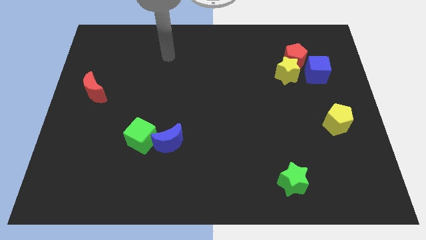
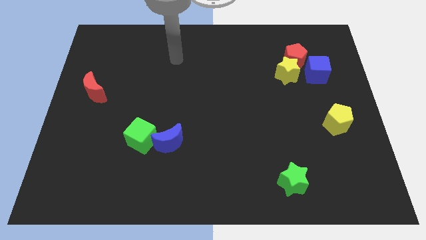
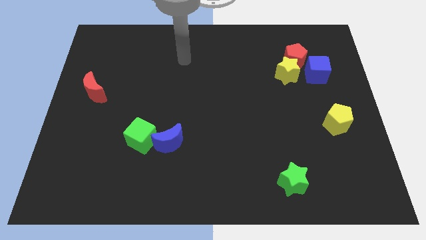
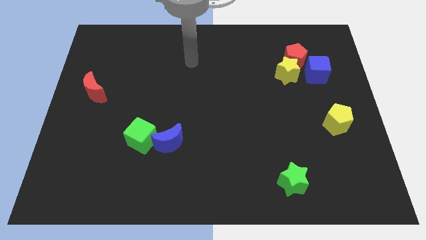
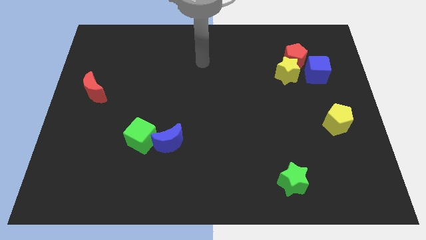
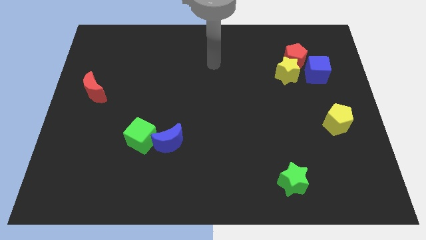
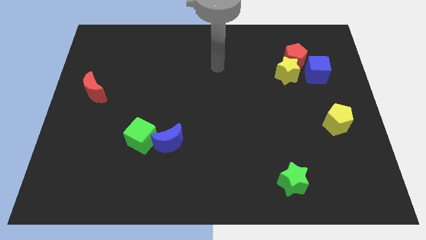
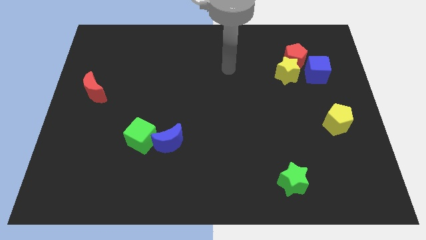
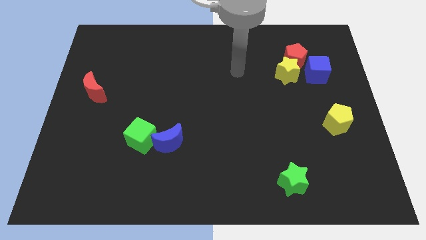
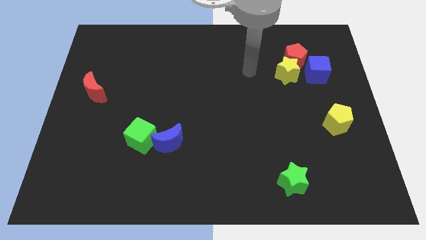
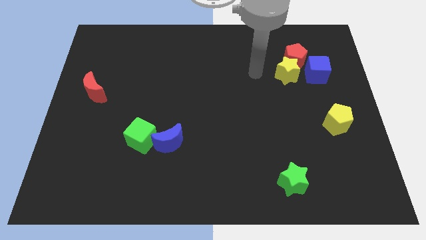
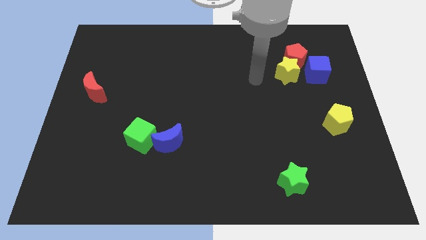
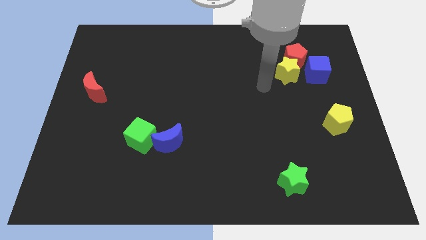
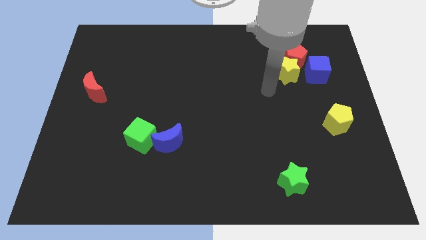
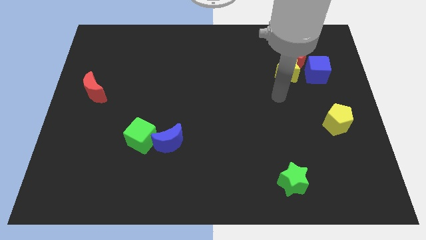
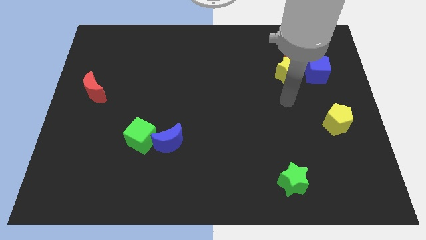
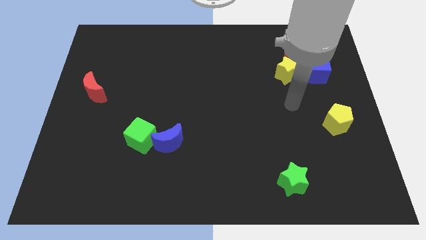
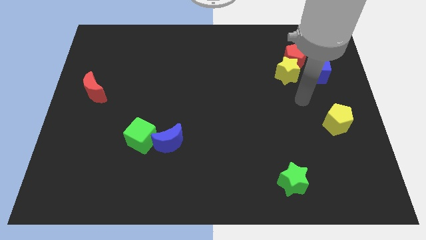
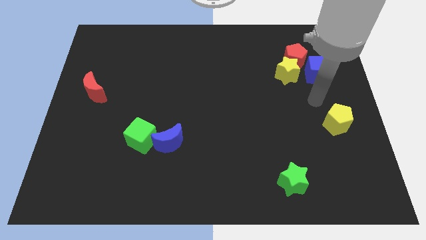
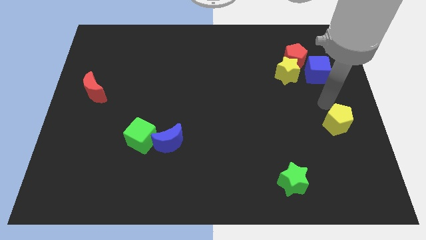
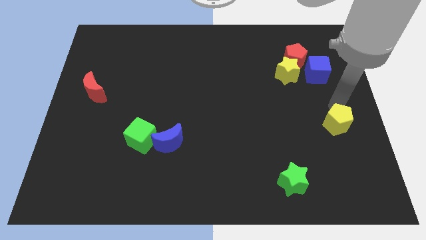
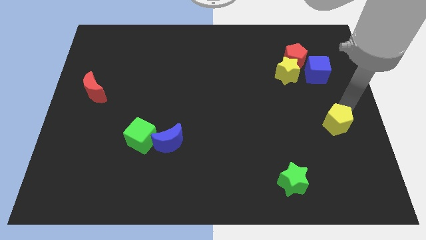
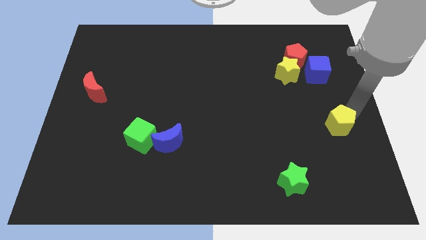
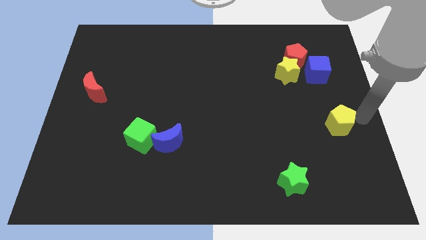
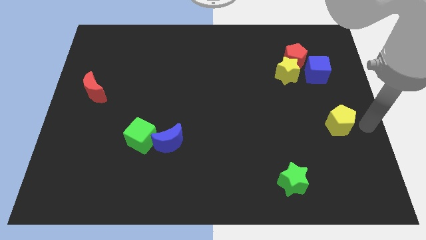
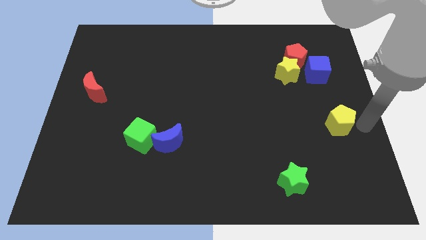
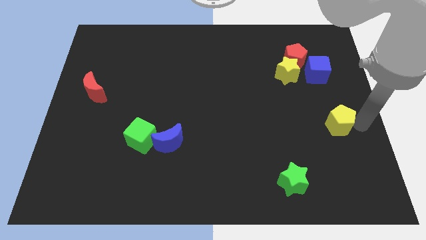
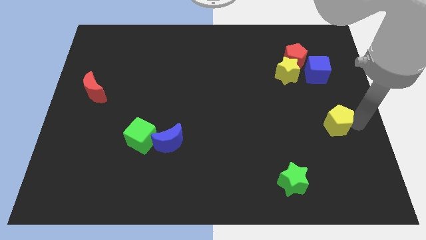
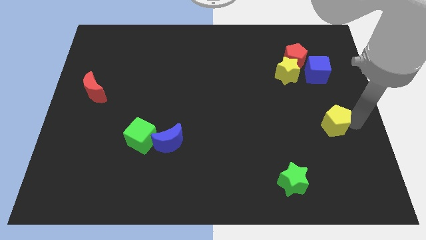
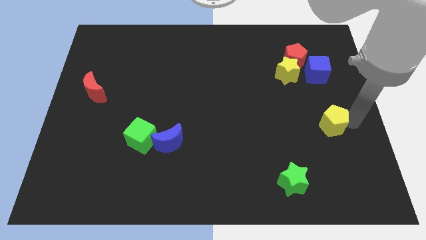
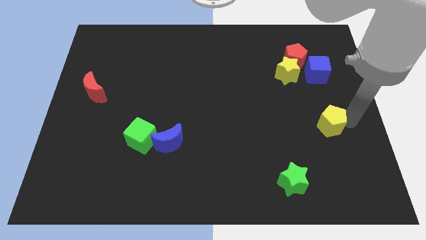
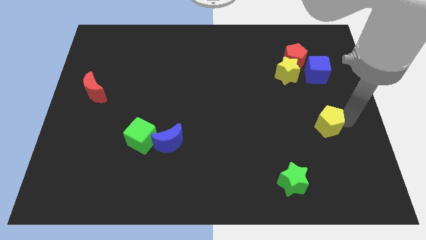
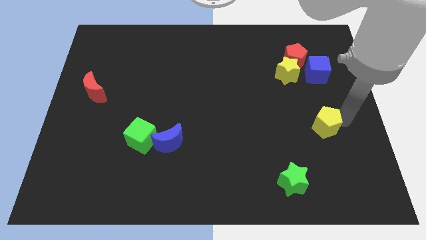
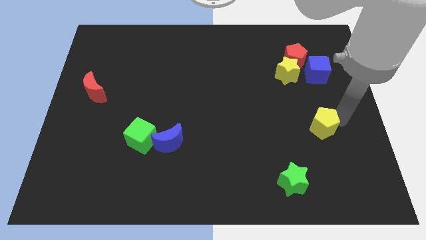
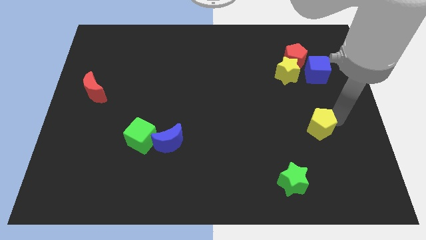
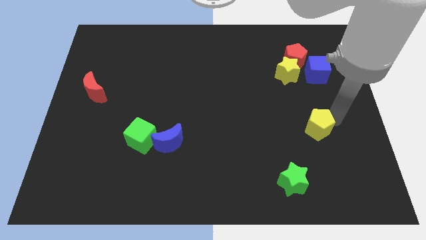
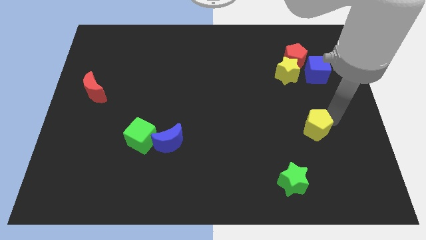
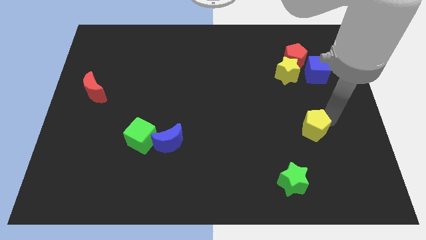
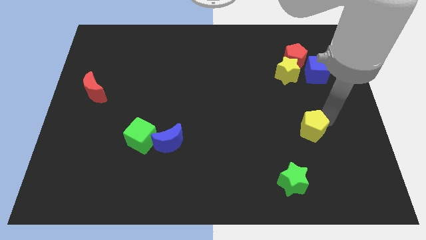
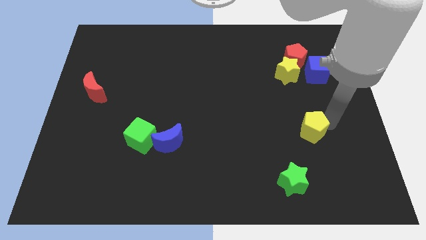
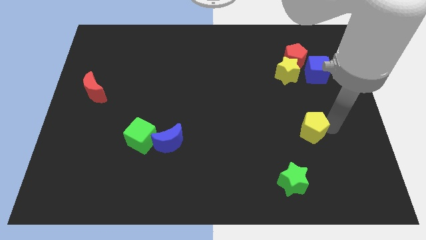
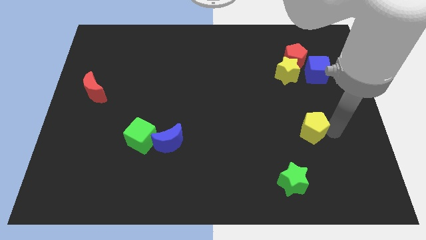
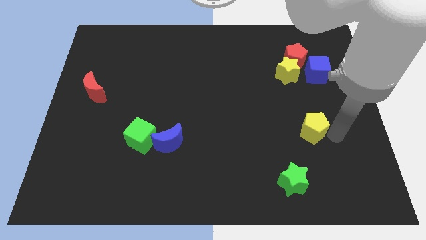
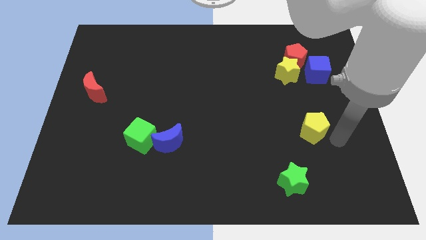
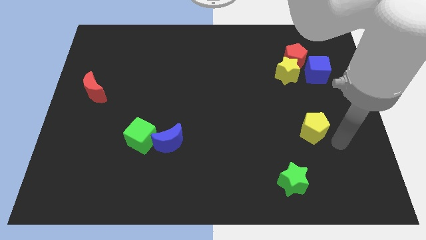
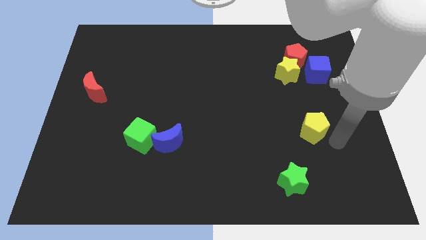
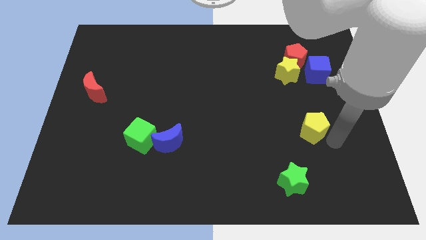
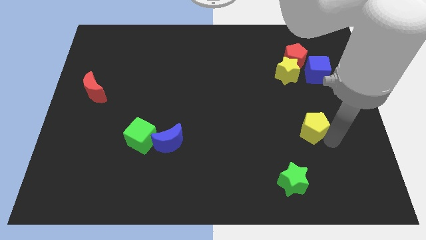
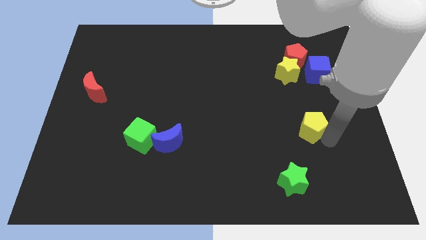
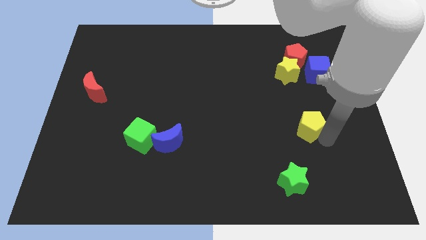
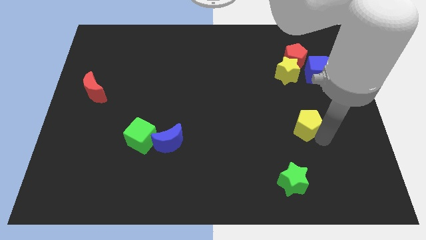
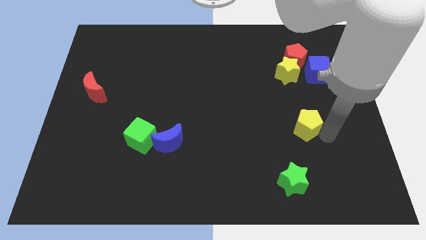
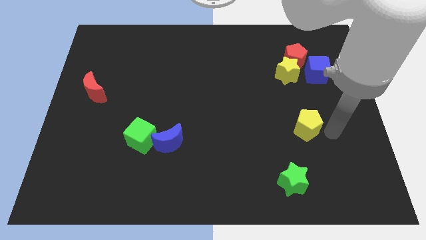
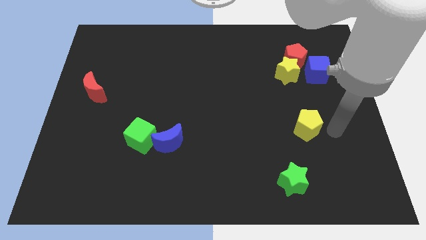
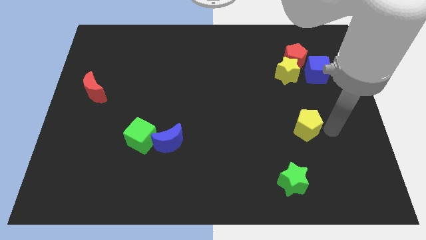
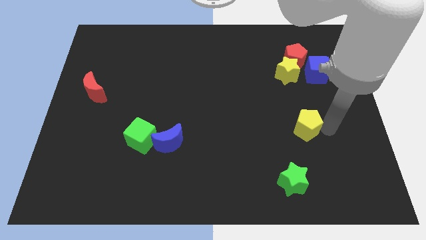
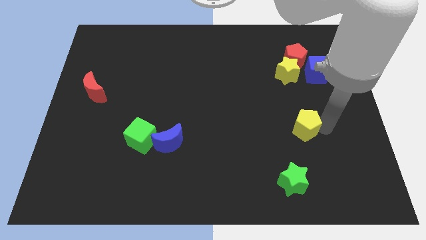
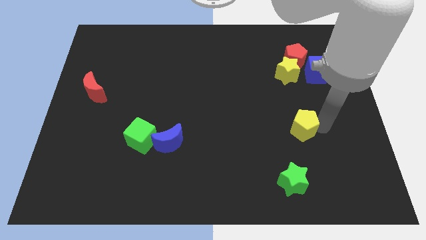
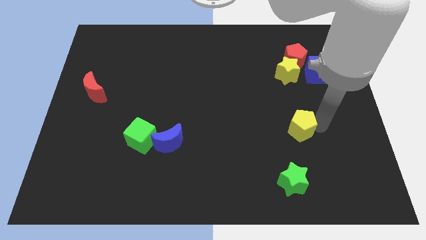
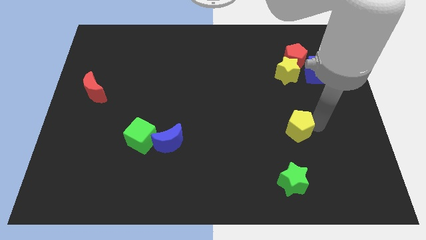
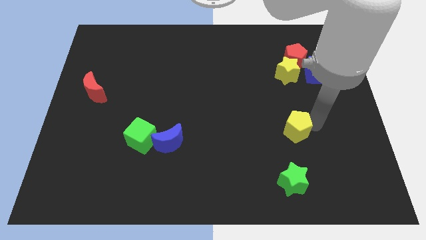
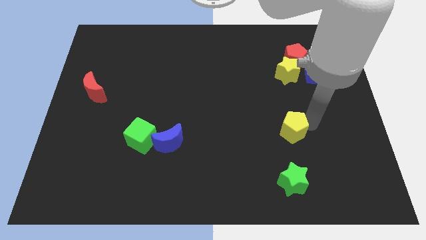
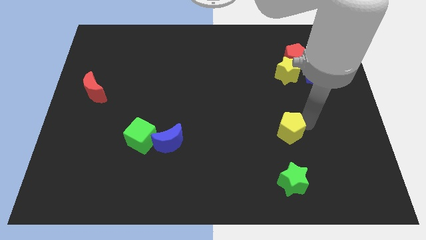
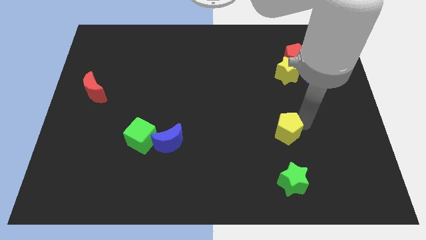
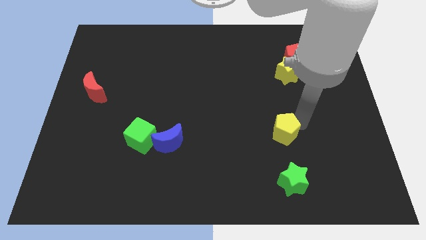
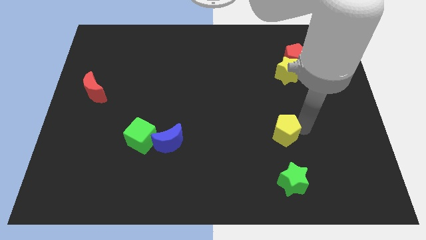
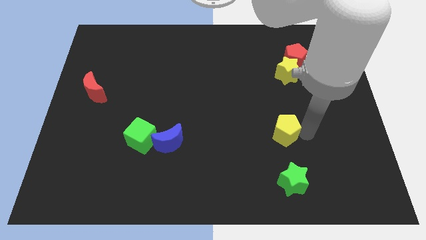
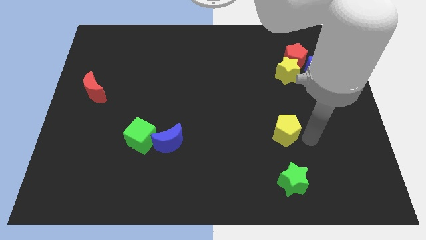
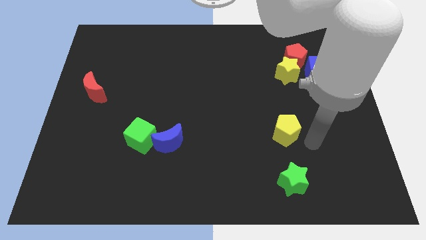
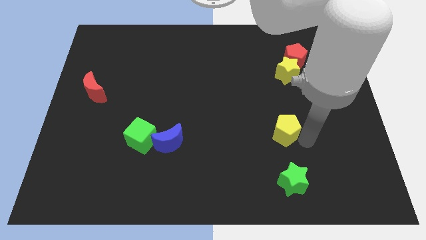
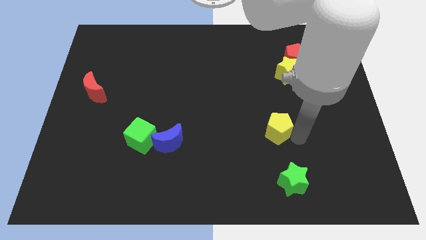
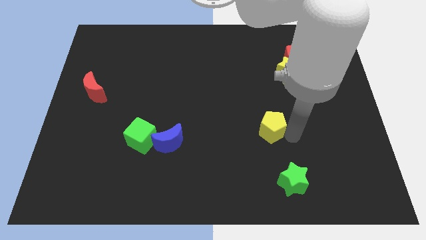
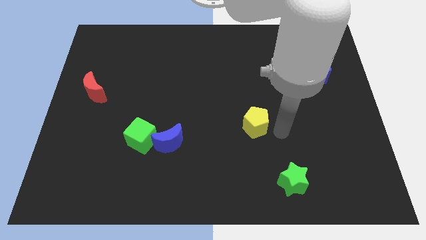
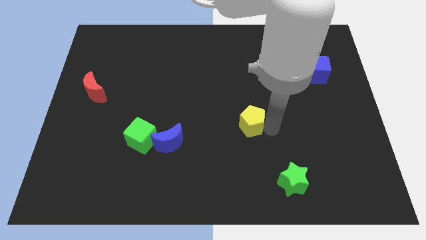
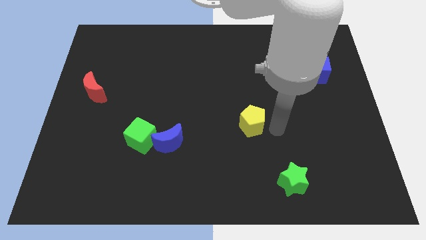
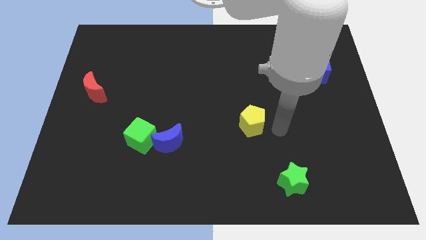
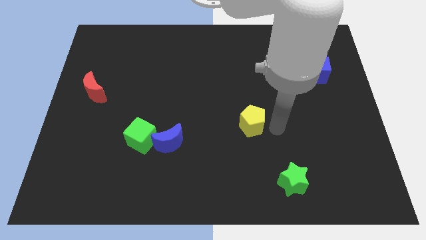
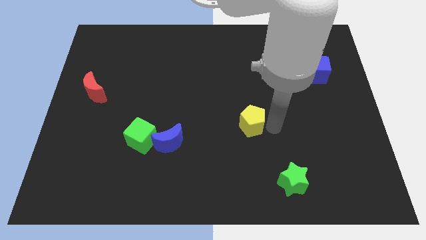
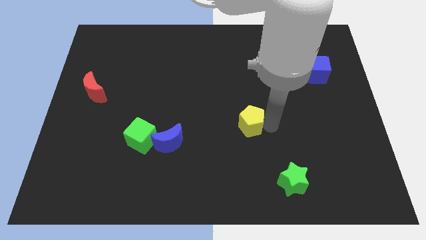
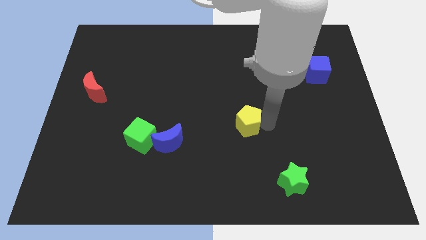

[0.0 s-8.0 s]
move the yellow pentagon to the left
